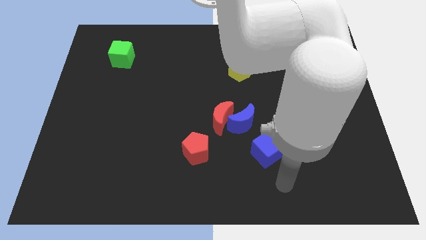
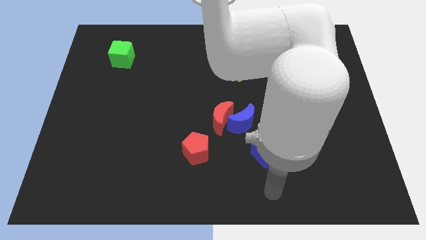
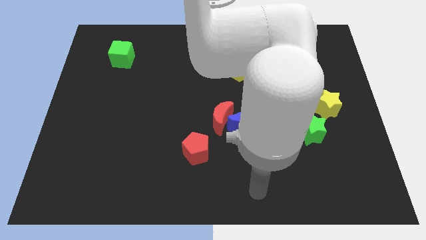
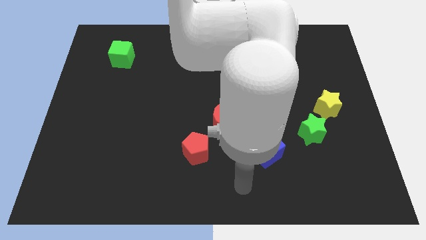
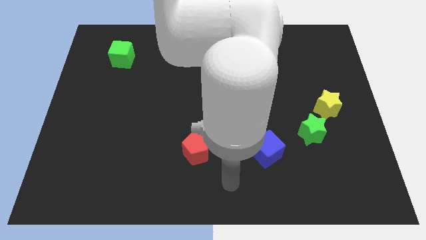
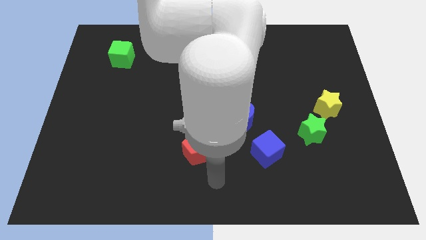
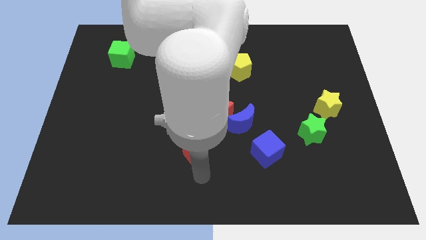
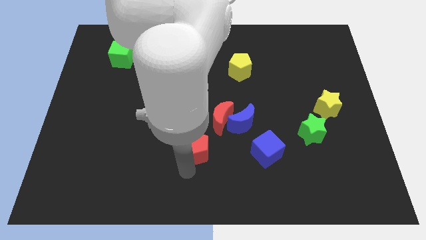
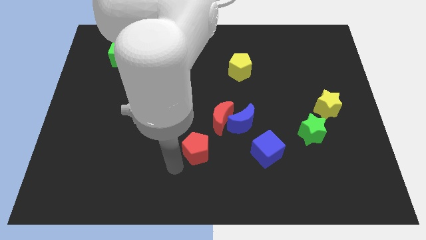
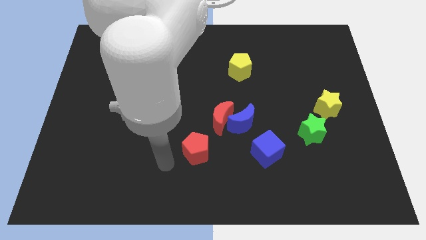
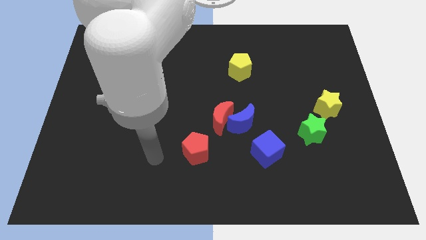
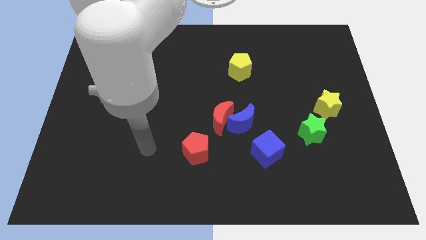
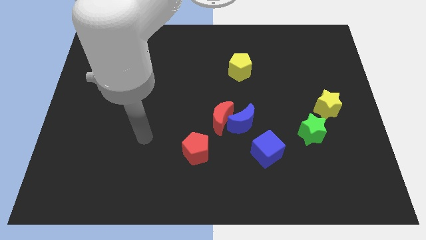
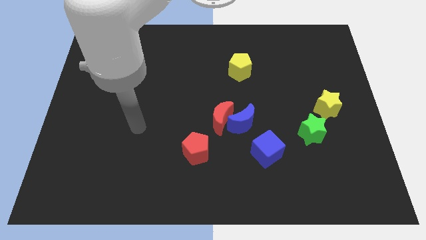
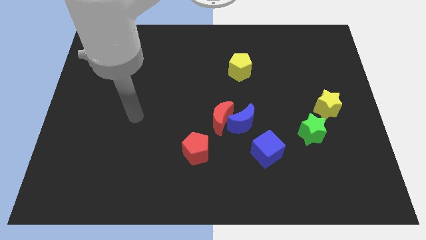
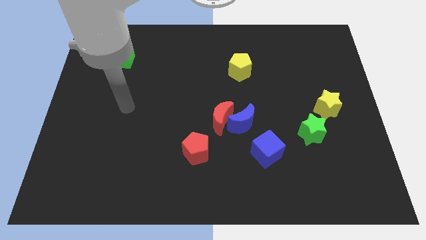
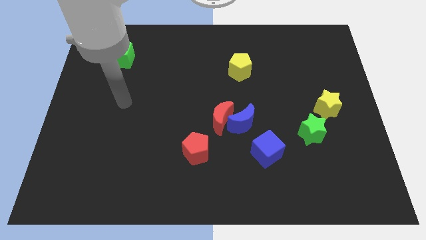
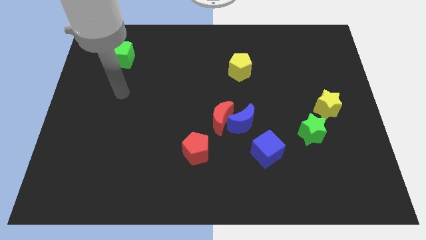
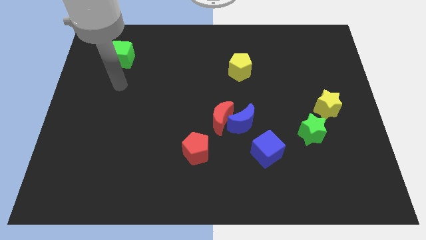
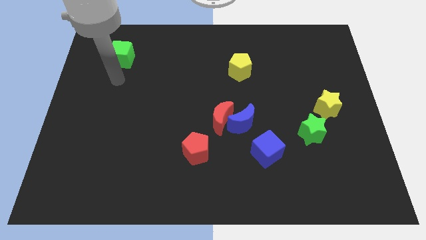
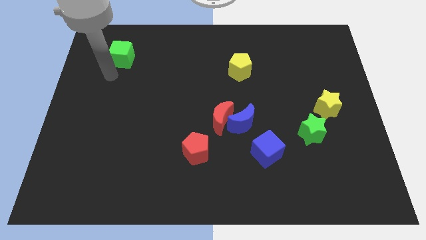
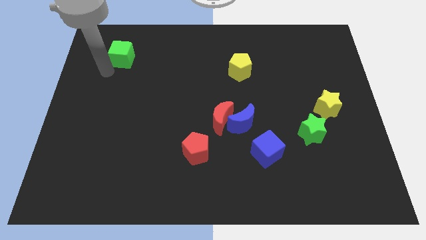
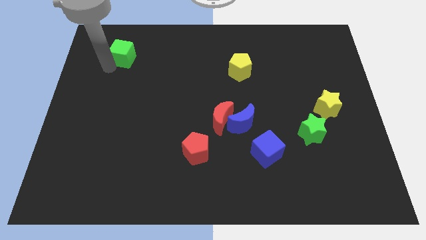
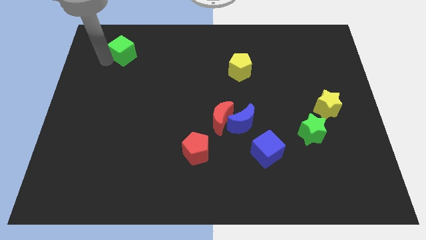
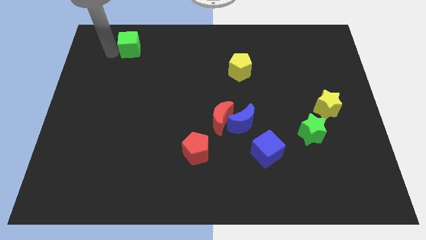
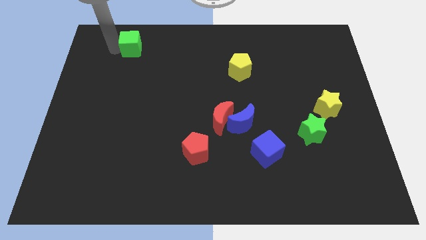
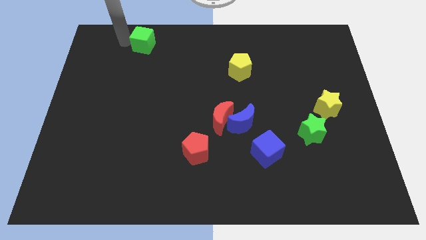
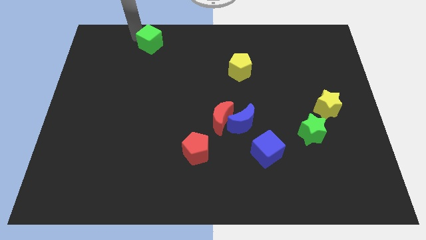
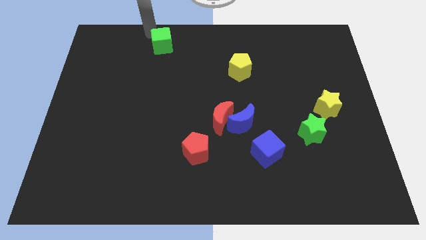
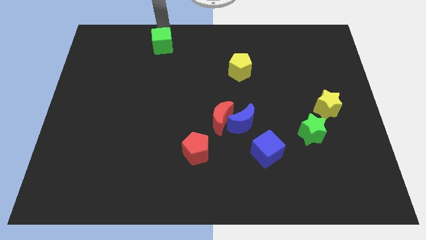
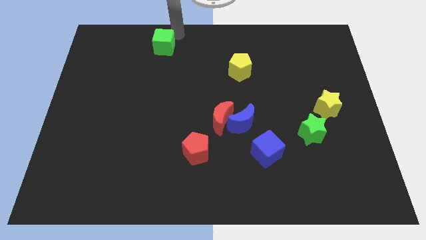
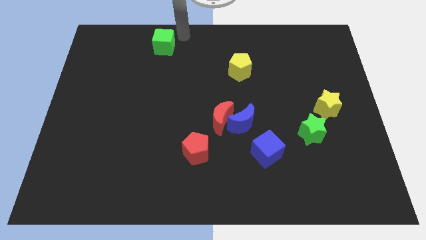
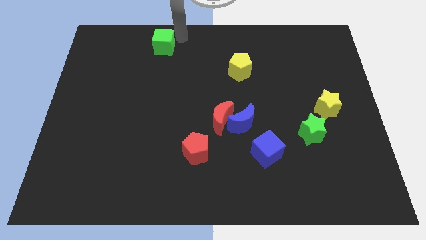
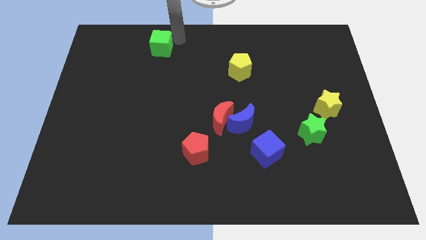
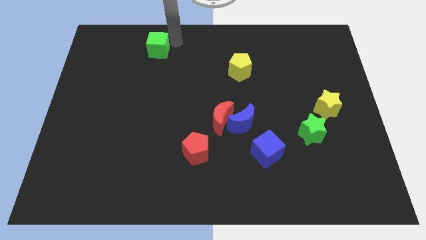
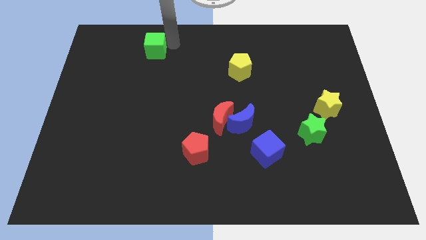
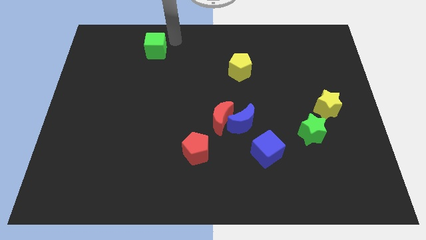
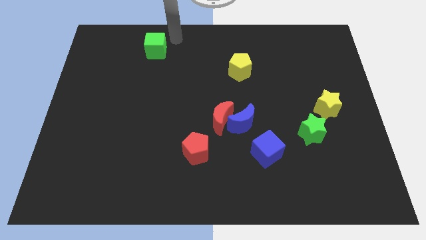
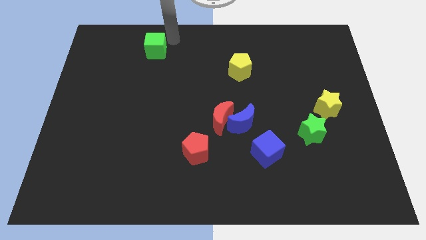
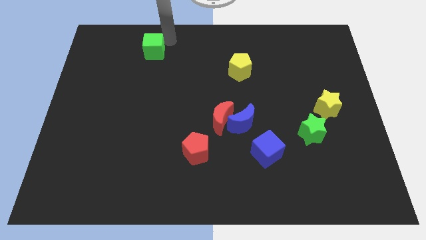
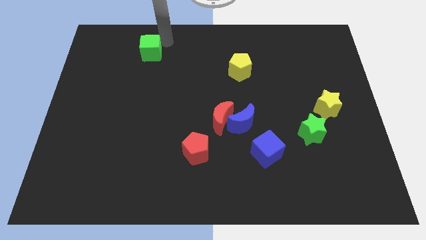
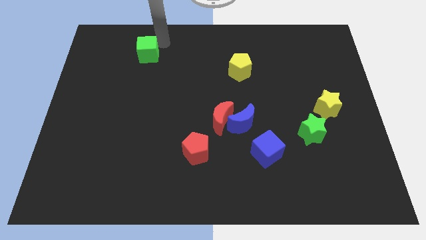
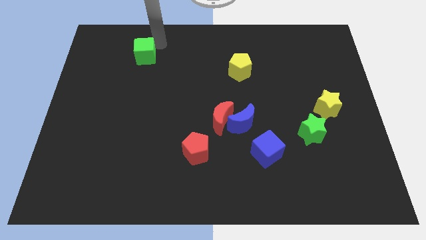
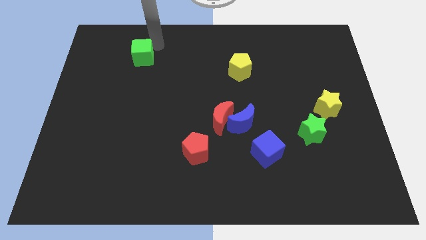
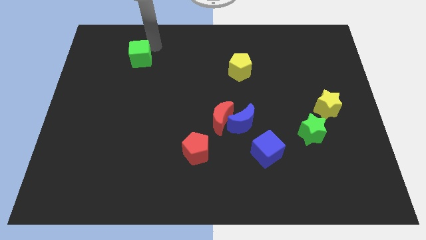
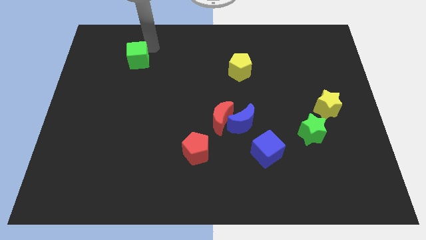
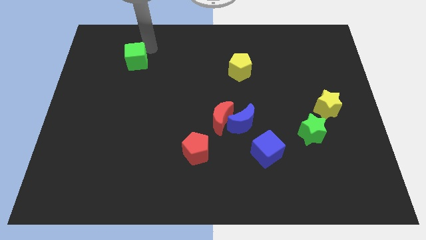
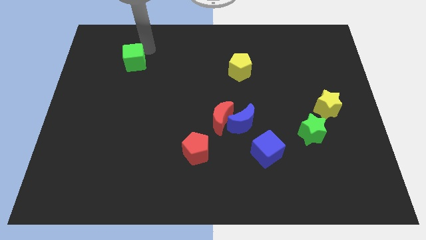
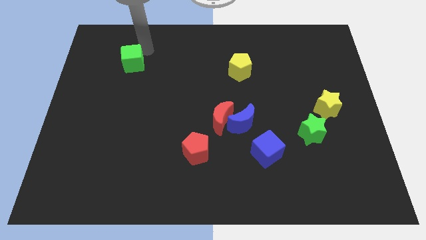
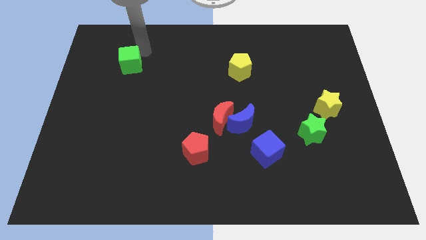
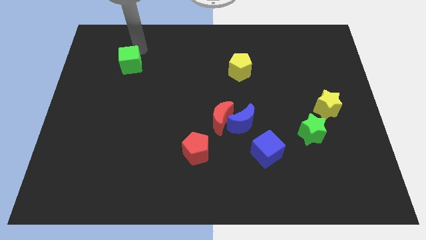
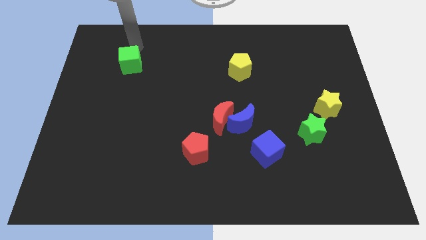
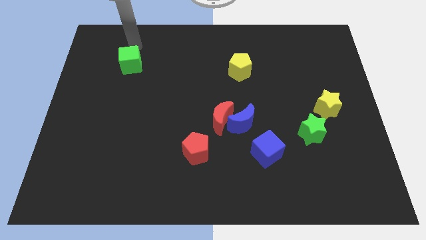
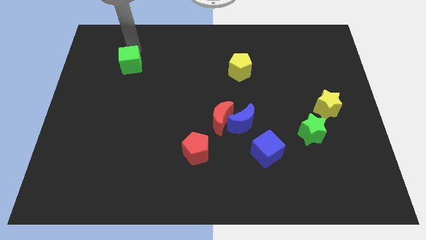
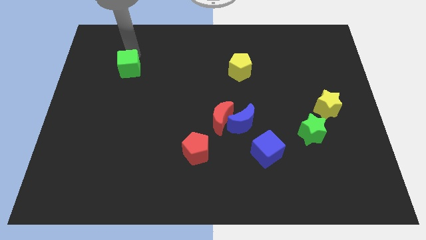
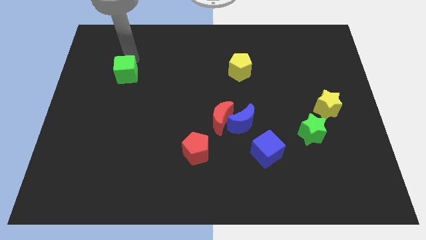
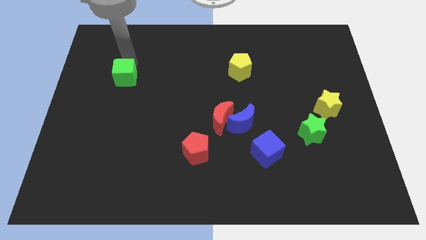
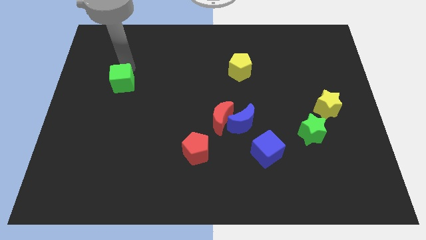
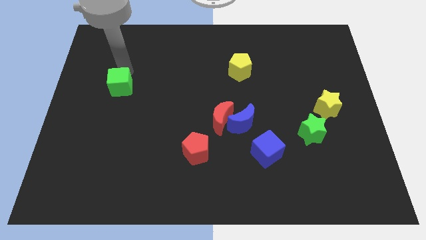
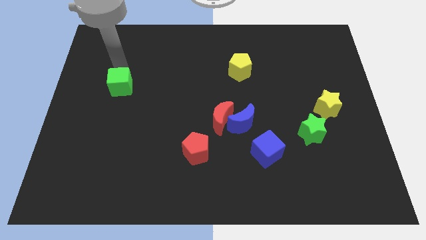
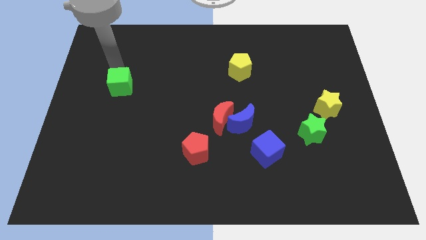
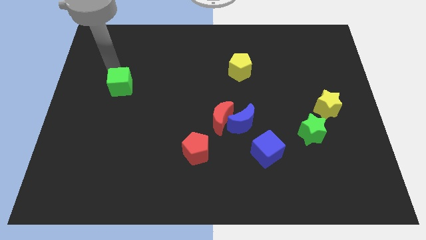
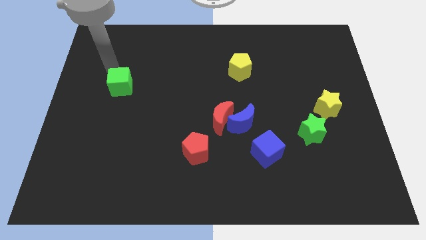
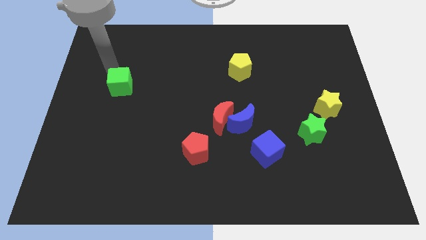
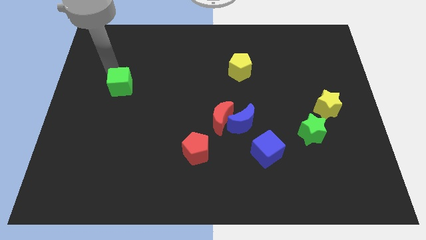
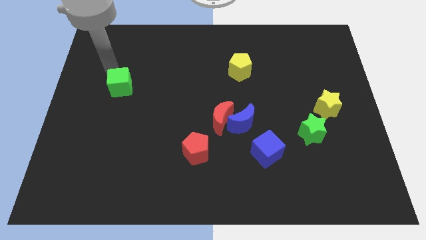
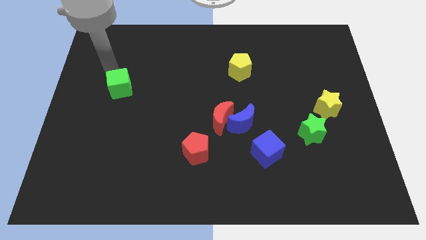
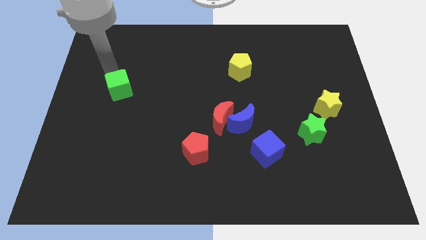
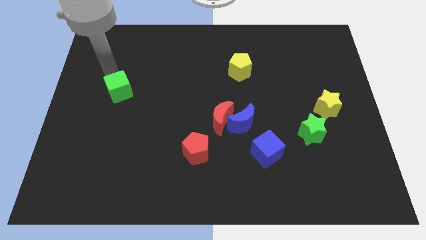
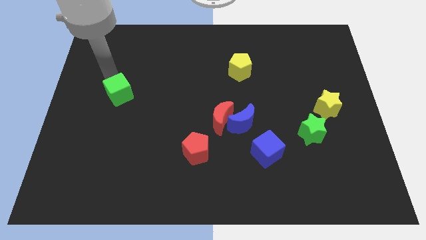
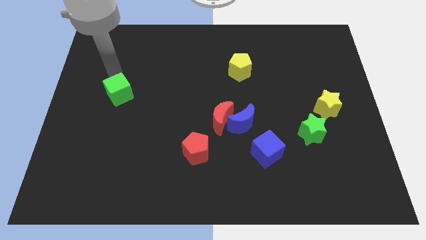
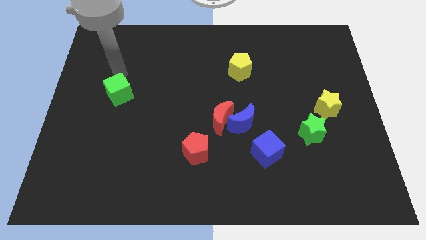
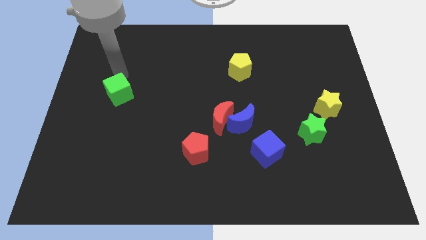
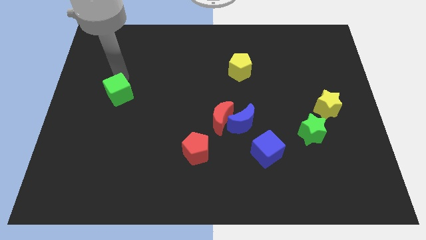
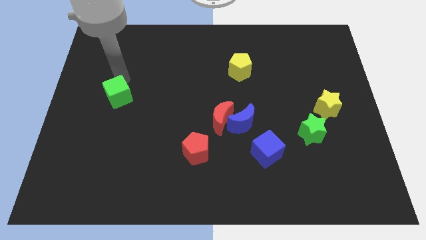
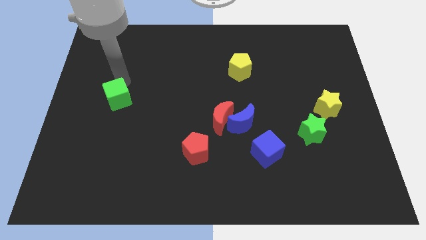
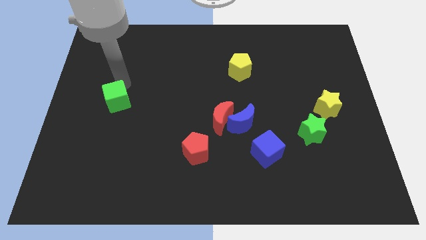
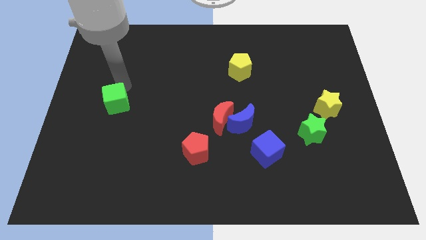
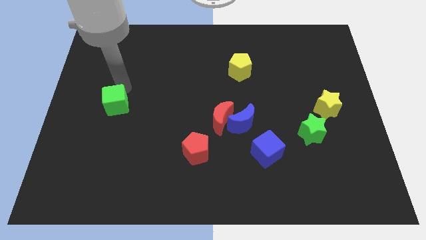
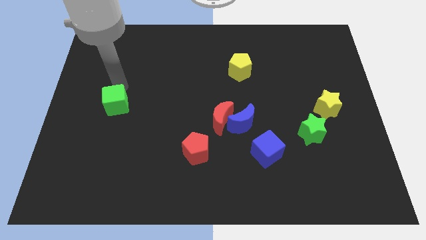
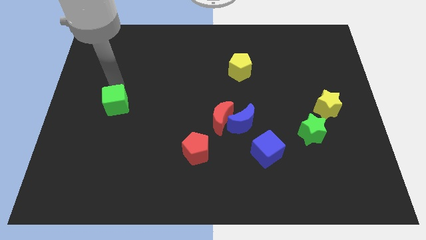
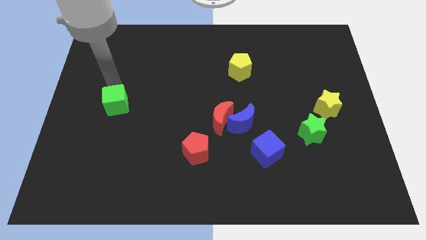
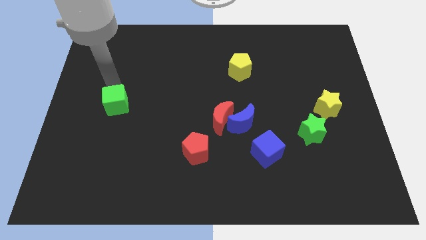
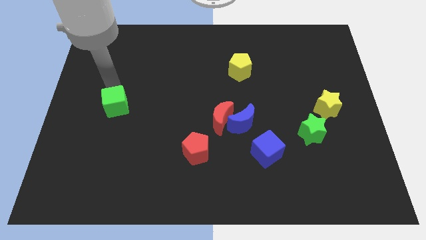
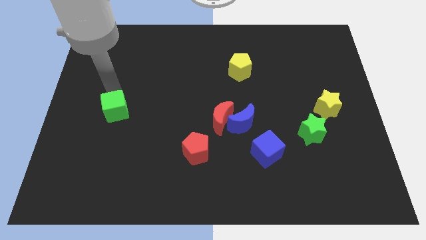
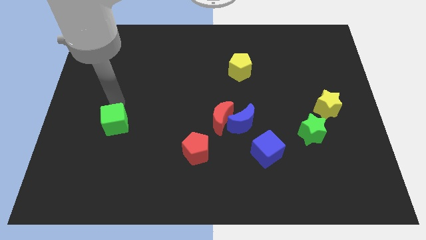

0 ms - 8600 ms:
slide the green cube down
